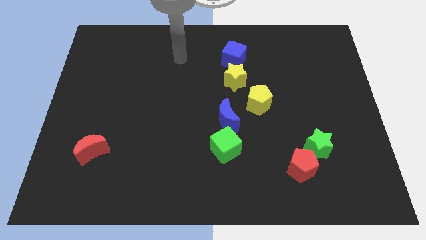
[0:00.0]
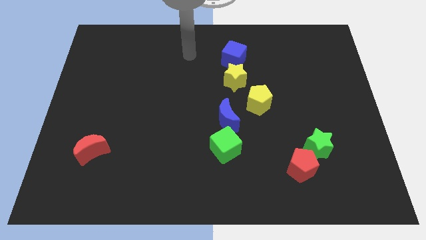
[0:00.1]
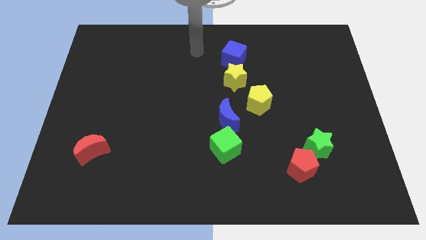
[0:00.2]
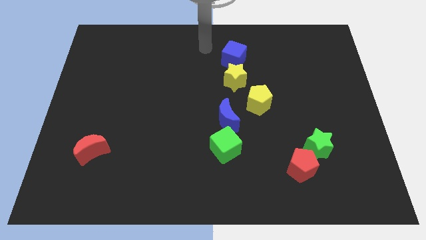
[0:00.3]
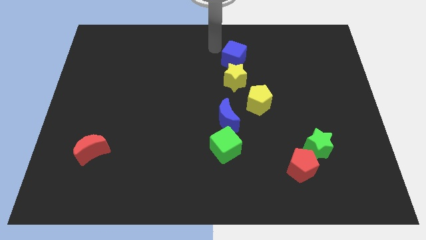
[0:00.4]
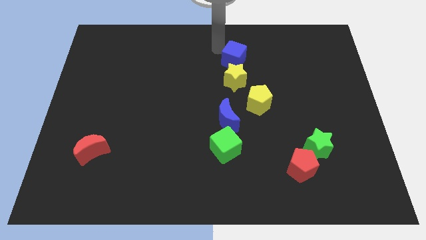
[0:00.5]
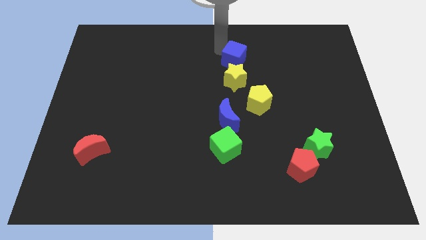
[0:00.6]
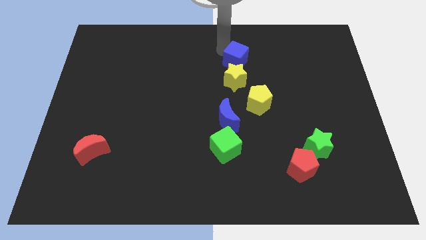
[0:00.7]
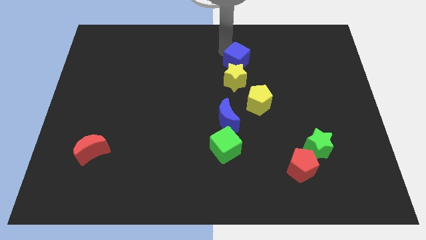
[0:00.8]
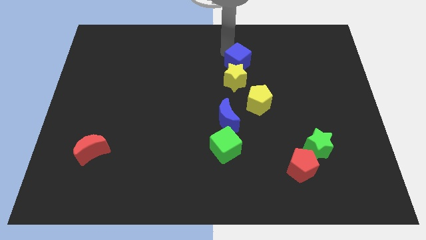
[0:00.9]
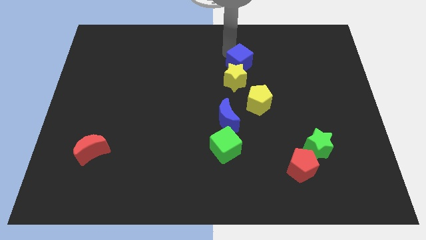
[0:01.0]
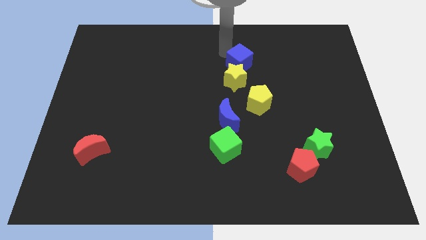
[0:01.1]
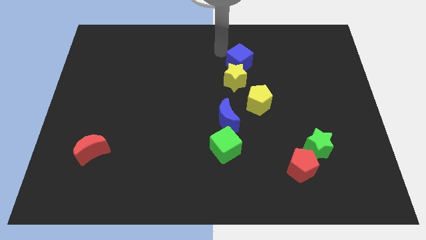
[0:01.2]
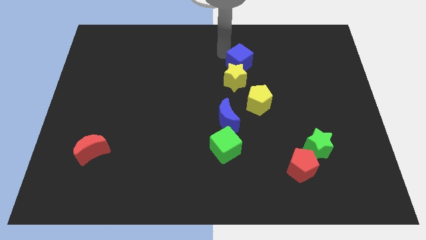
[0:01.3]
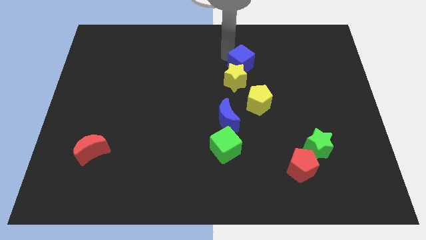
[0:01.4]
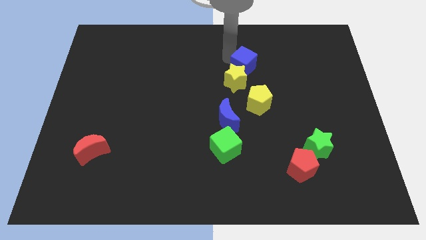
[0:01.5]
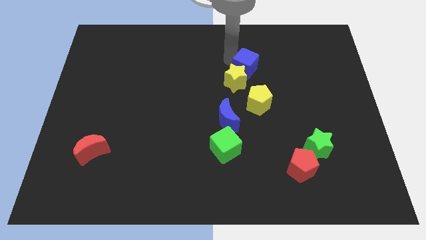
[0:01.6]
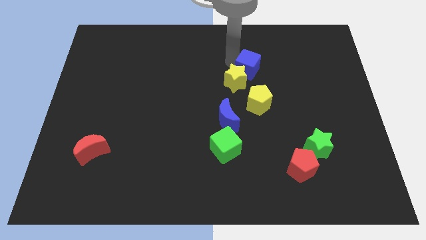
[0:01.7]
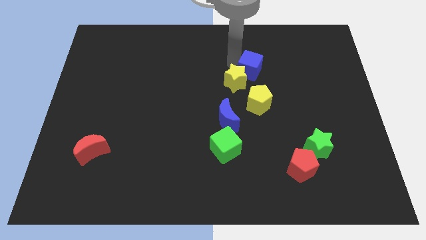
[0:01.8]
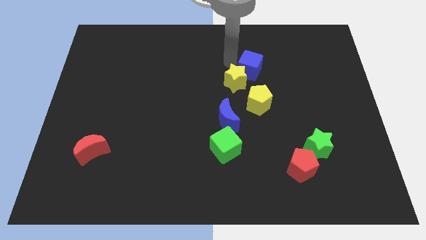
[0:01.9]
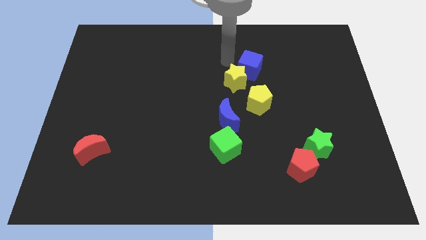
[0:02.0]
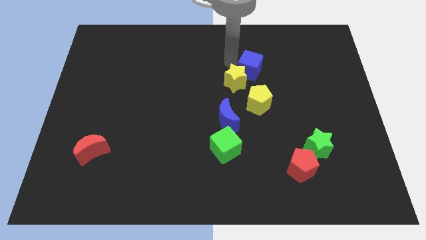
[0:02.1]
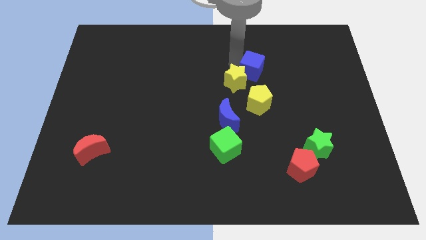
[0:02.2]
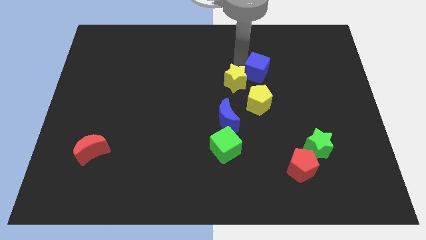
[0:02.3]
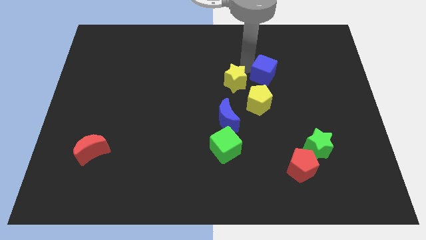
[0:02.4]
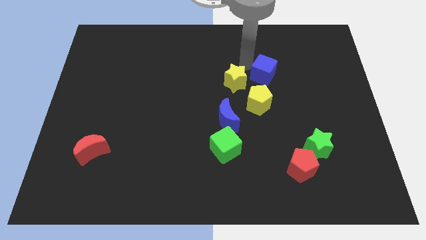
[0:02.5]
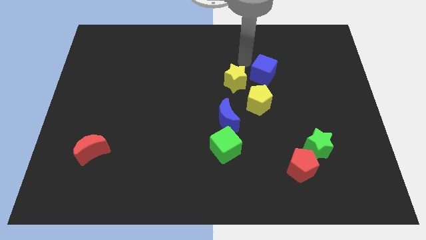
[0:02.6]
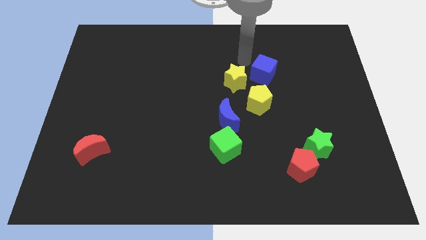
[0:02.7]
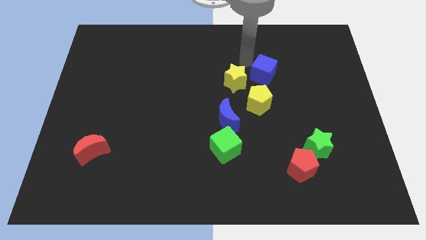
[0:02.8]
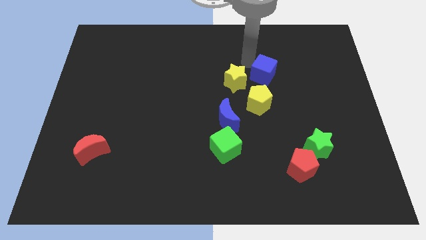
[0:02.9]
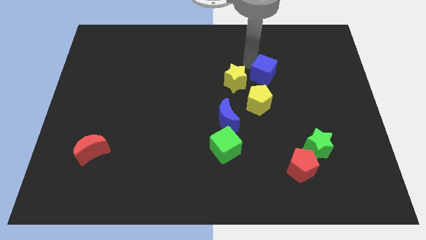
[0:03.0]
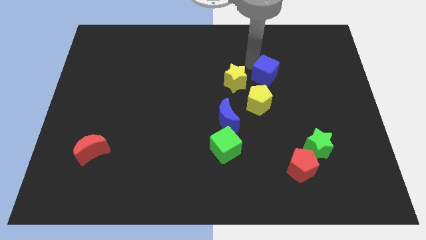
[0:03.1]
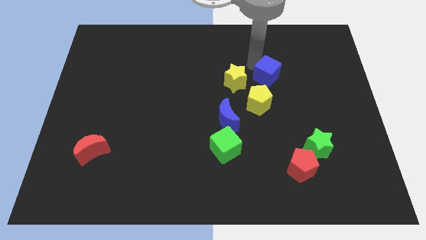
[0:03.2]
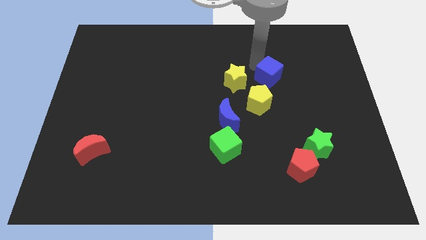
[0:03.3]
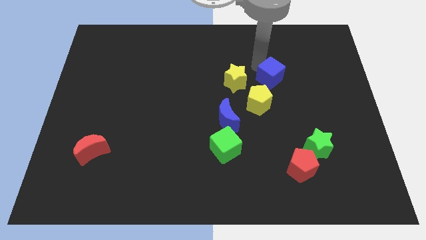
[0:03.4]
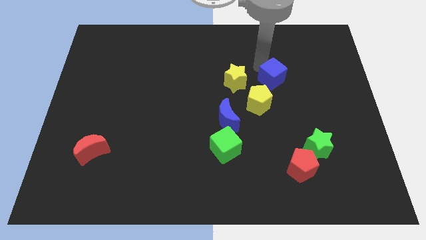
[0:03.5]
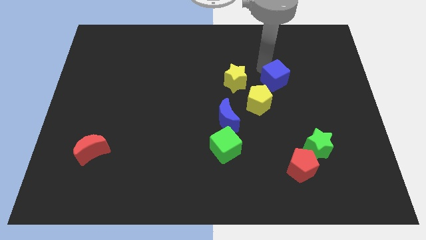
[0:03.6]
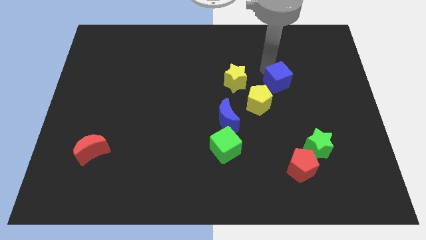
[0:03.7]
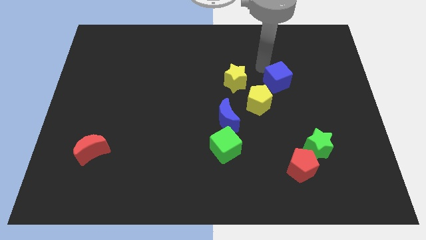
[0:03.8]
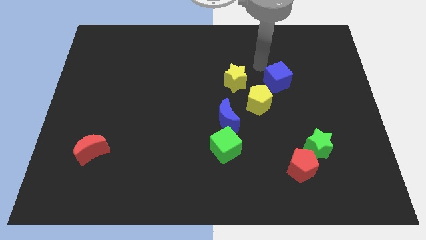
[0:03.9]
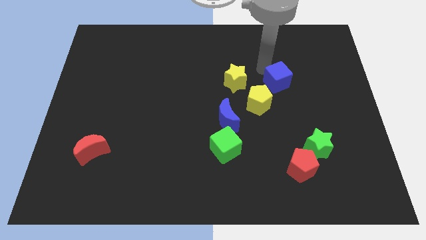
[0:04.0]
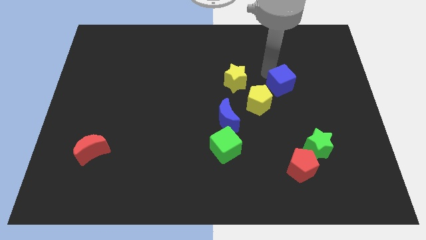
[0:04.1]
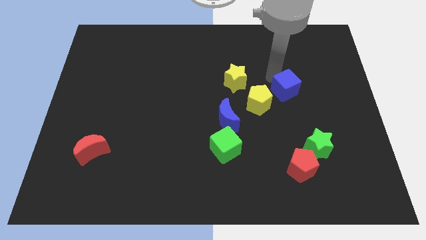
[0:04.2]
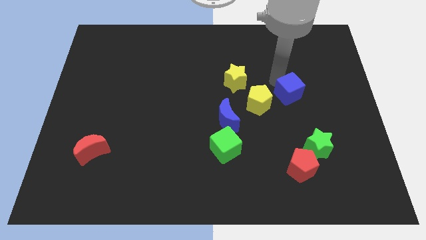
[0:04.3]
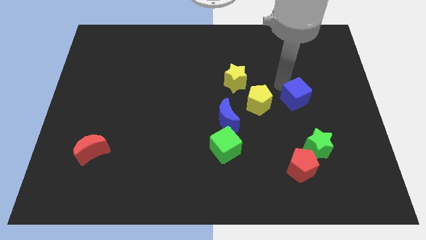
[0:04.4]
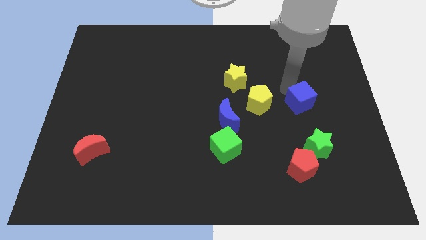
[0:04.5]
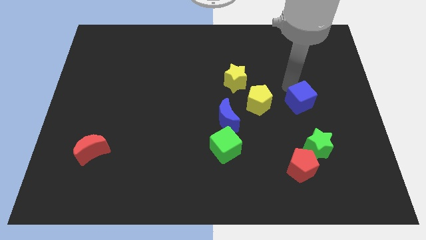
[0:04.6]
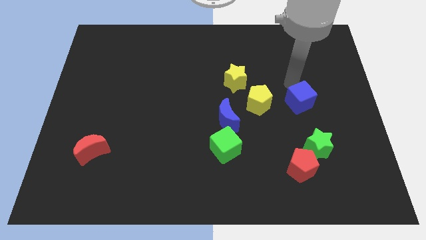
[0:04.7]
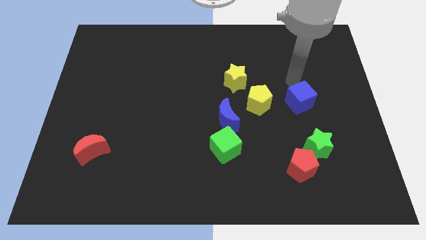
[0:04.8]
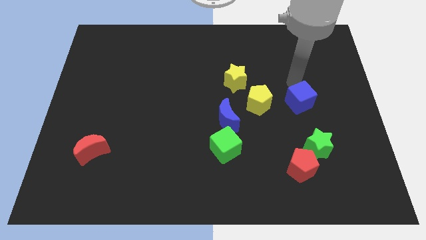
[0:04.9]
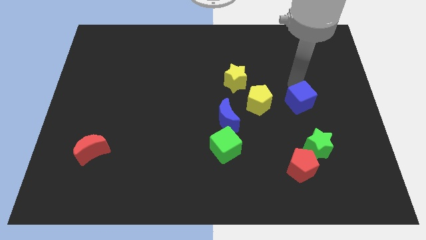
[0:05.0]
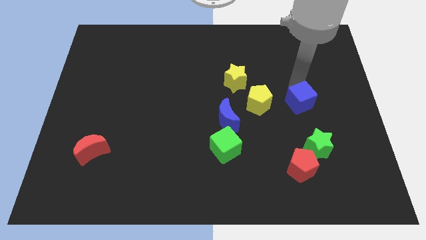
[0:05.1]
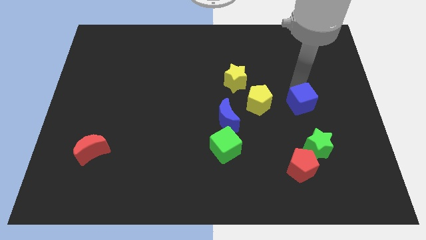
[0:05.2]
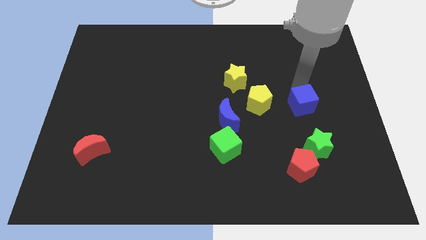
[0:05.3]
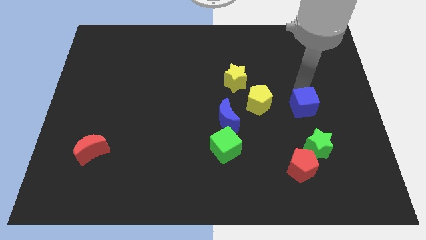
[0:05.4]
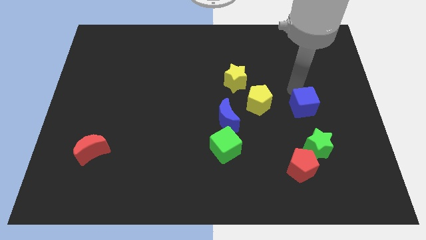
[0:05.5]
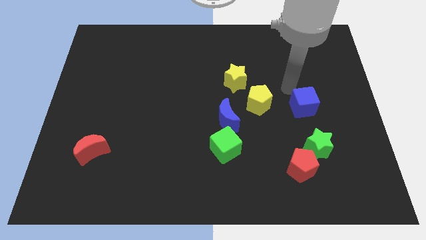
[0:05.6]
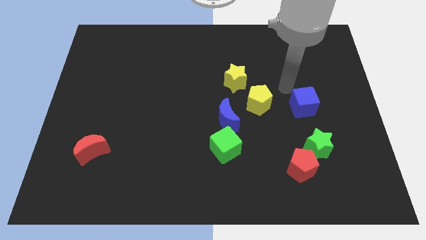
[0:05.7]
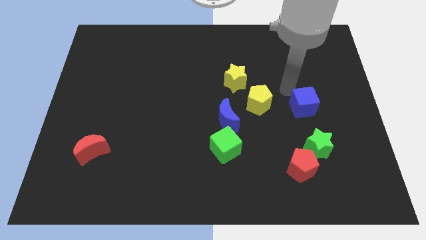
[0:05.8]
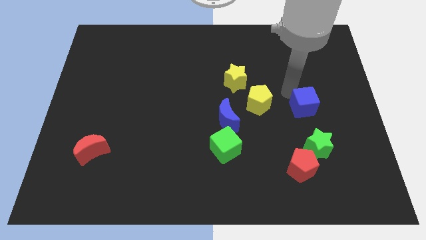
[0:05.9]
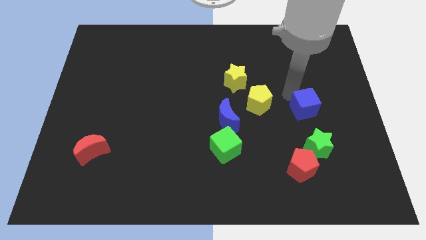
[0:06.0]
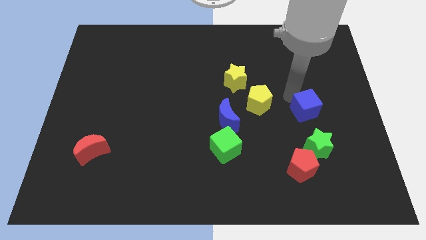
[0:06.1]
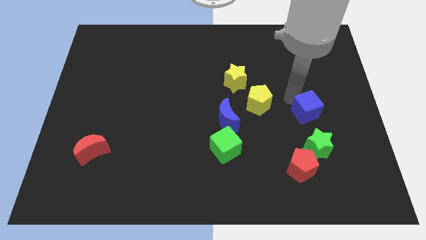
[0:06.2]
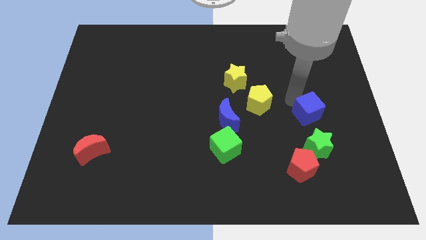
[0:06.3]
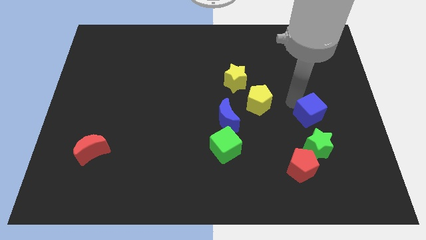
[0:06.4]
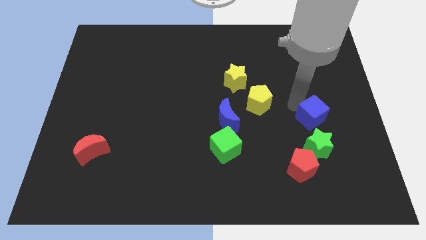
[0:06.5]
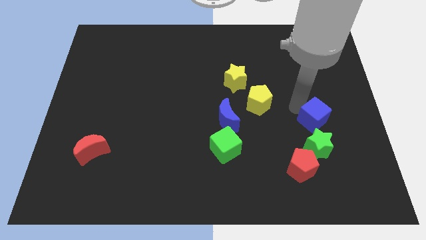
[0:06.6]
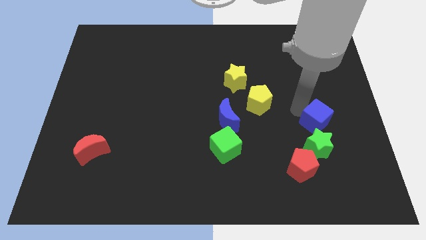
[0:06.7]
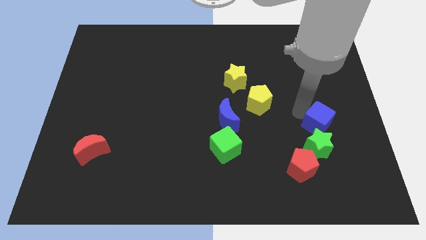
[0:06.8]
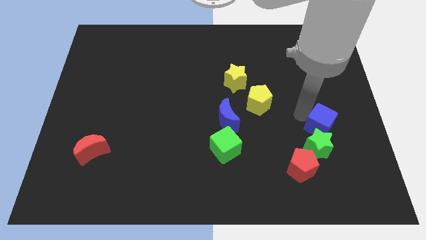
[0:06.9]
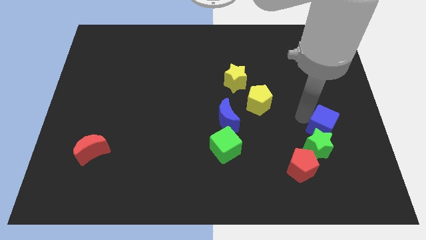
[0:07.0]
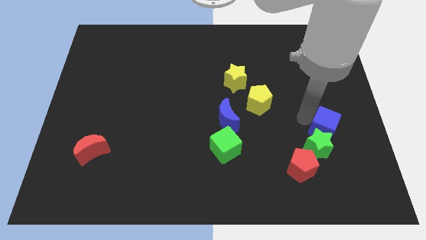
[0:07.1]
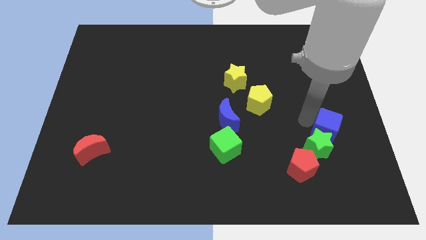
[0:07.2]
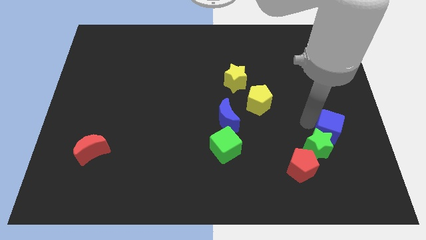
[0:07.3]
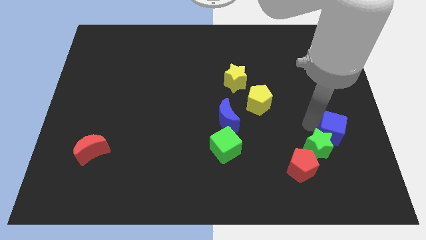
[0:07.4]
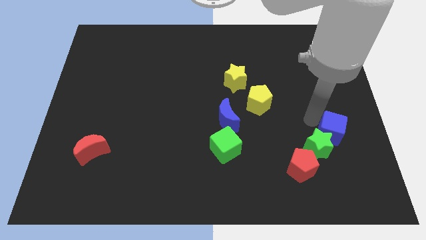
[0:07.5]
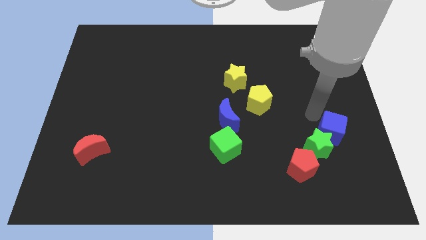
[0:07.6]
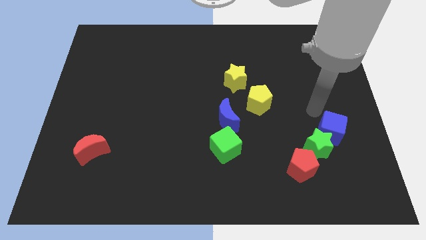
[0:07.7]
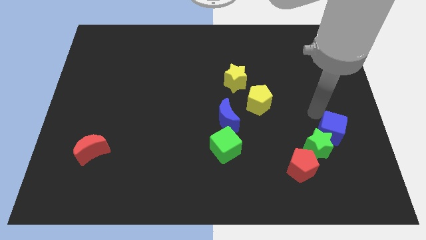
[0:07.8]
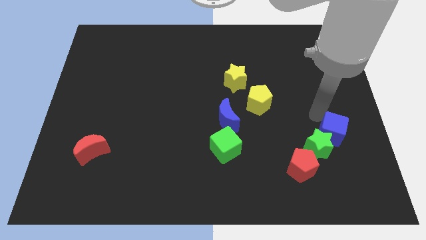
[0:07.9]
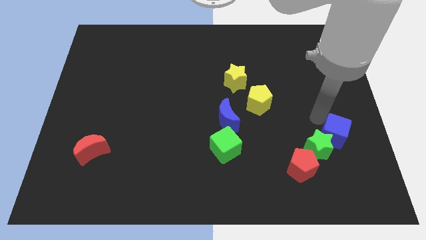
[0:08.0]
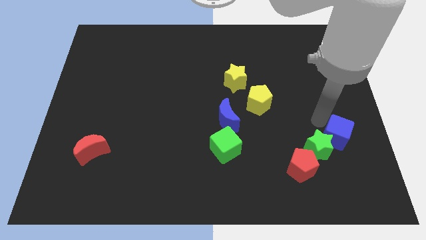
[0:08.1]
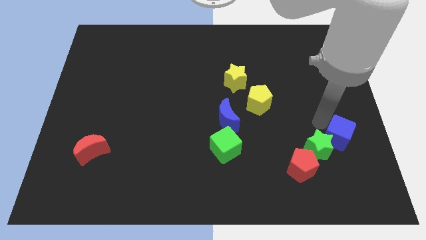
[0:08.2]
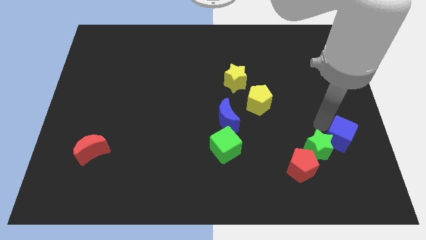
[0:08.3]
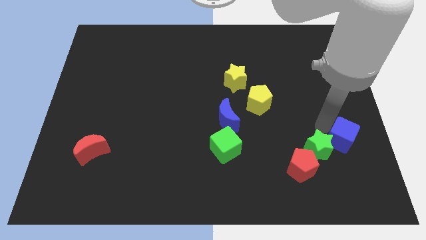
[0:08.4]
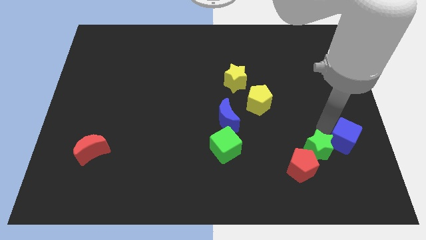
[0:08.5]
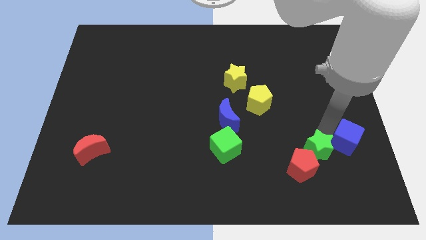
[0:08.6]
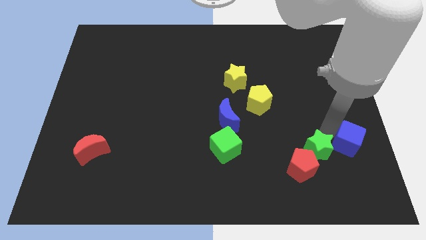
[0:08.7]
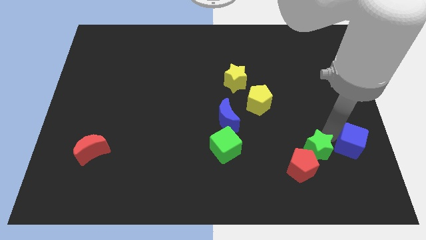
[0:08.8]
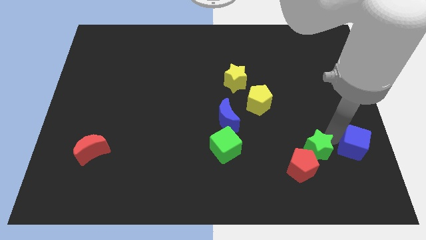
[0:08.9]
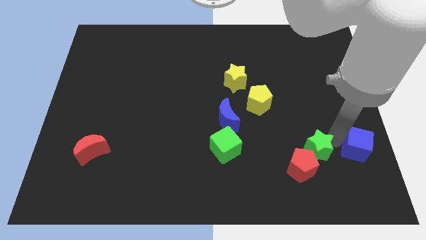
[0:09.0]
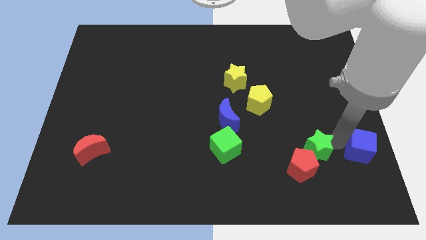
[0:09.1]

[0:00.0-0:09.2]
slide the blue cube to the right side of the red pentagon
